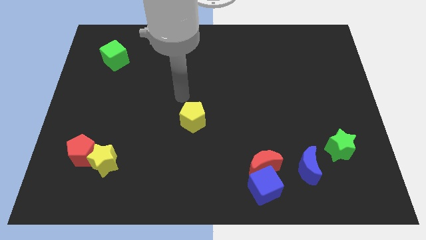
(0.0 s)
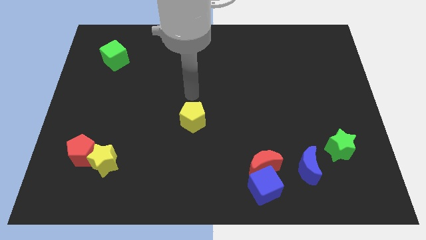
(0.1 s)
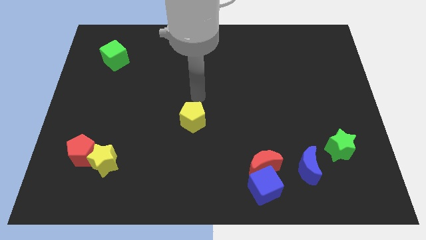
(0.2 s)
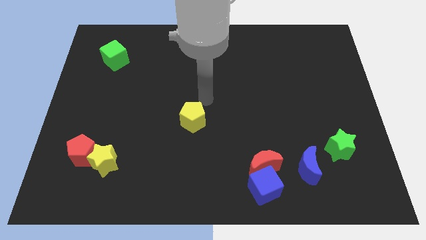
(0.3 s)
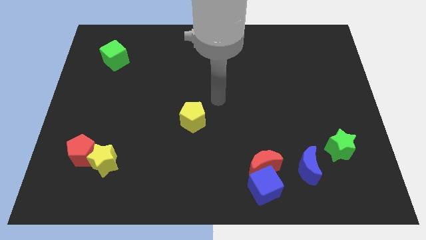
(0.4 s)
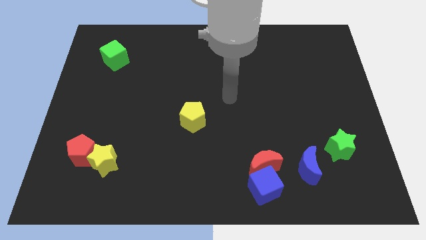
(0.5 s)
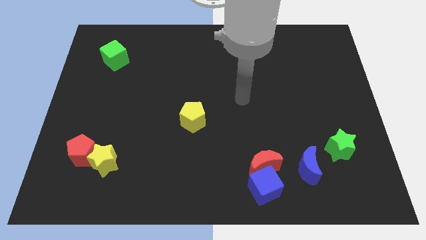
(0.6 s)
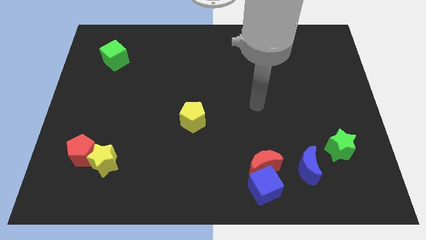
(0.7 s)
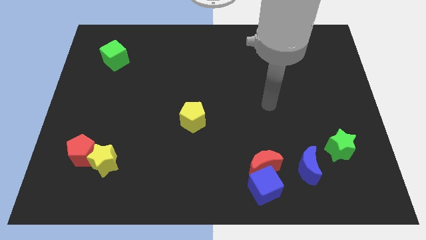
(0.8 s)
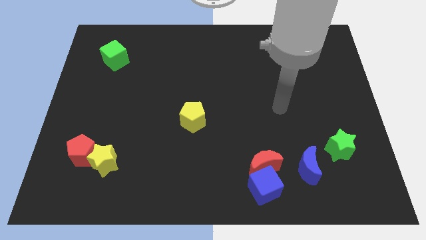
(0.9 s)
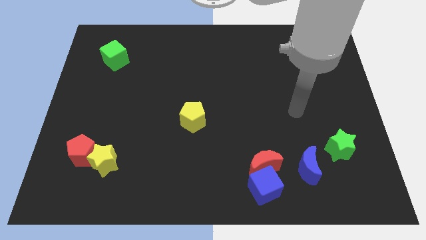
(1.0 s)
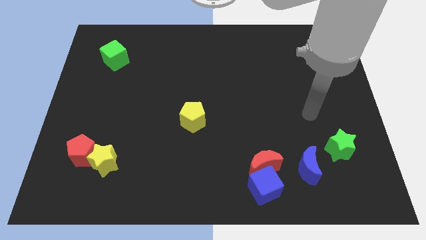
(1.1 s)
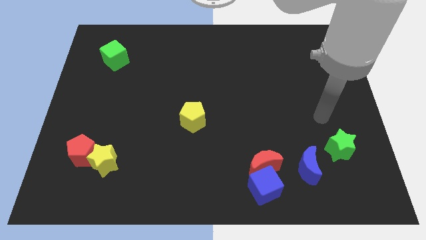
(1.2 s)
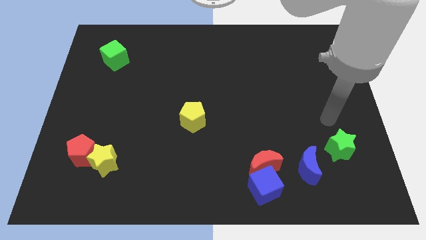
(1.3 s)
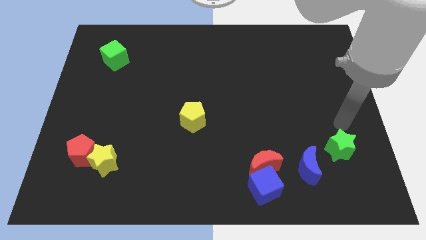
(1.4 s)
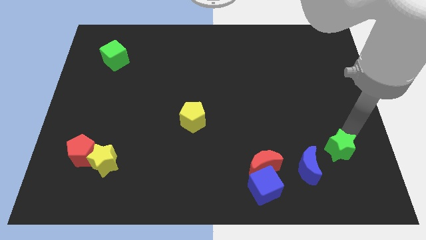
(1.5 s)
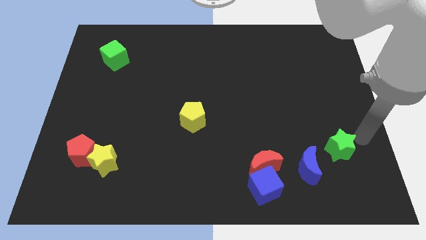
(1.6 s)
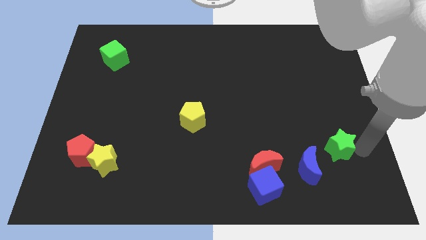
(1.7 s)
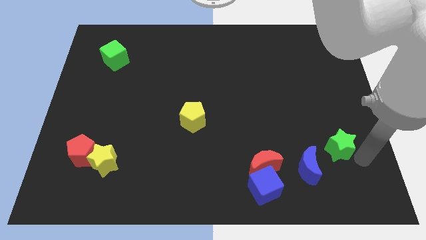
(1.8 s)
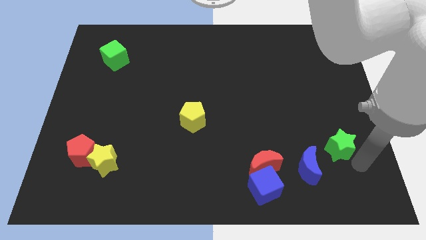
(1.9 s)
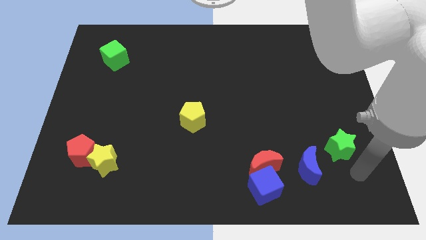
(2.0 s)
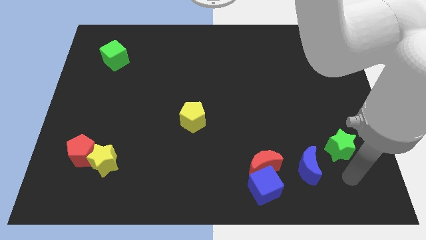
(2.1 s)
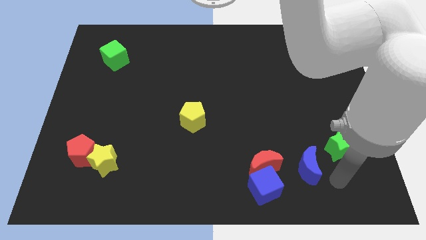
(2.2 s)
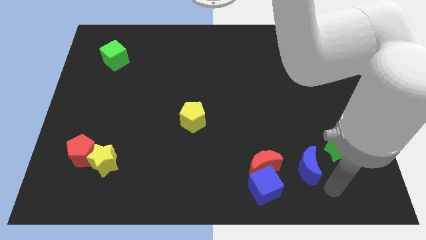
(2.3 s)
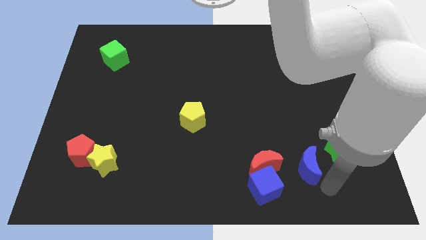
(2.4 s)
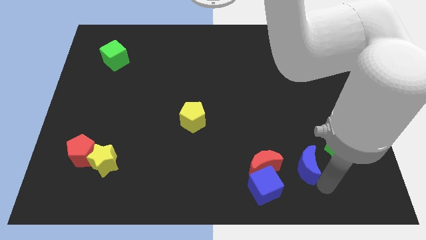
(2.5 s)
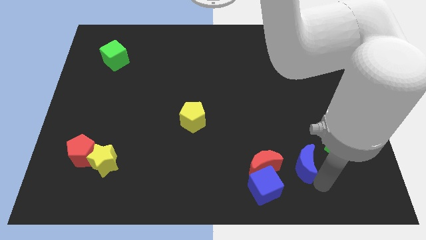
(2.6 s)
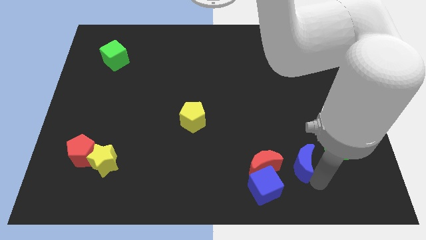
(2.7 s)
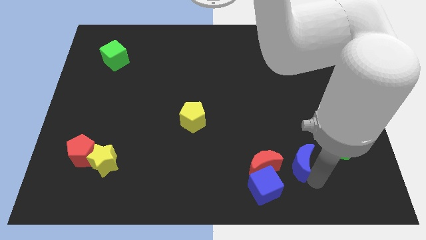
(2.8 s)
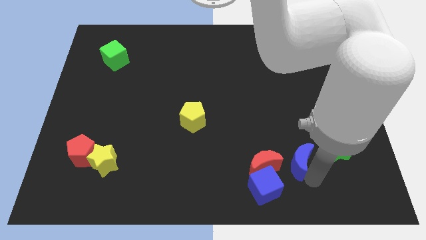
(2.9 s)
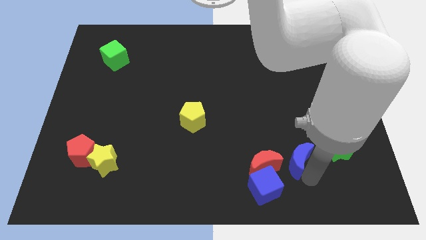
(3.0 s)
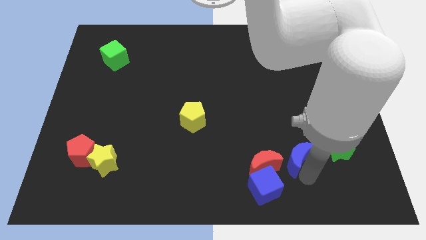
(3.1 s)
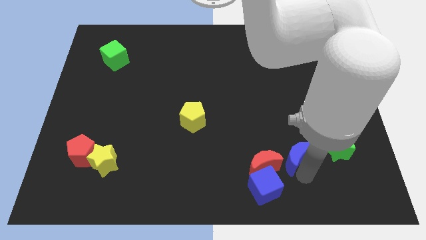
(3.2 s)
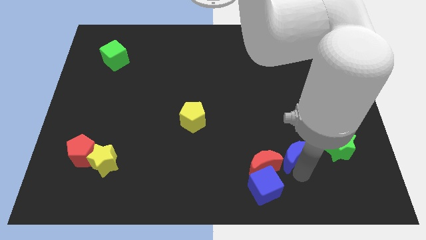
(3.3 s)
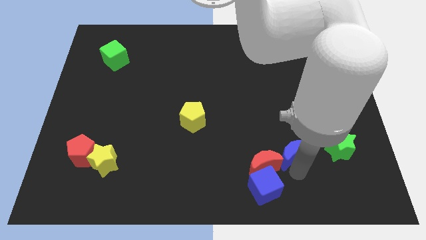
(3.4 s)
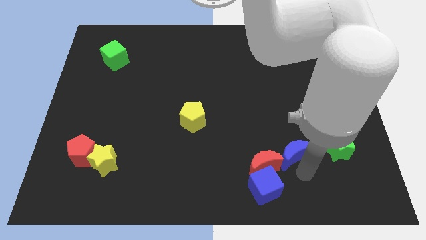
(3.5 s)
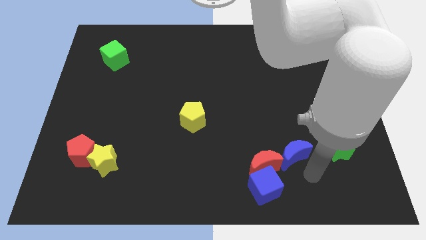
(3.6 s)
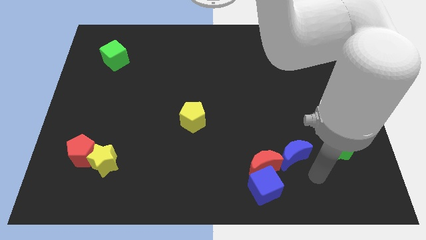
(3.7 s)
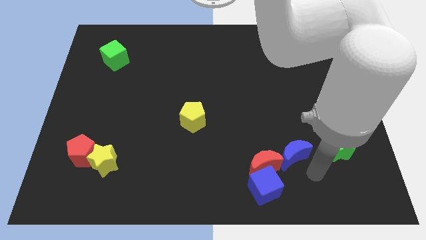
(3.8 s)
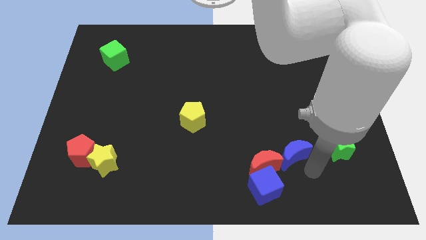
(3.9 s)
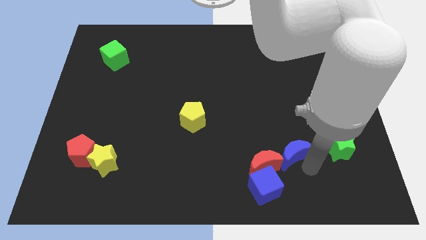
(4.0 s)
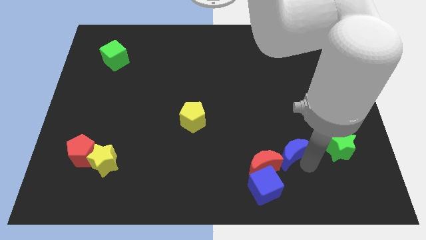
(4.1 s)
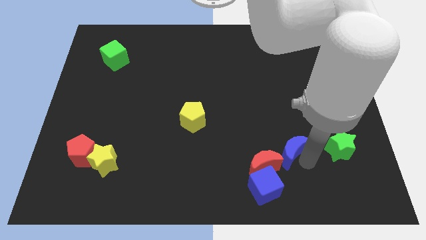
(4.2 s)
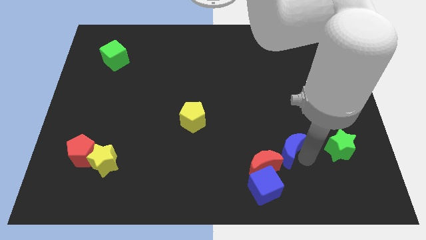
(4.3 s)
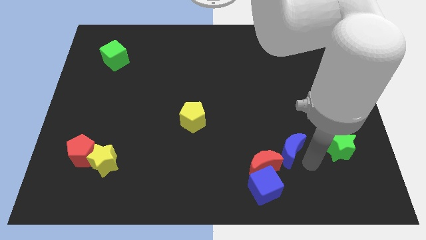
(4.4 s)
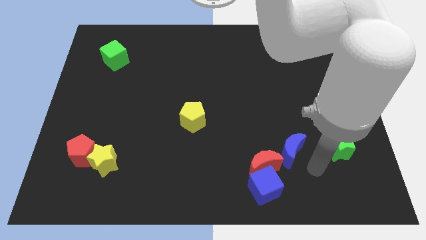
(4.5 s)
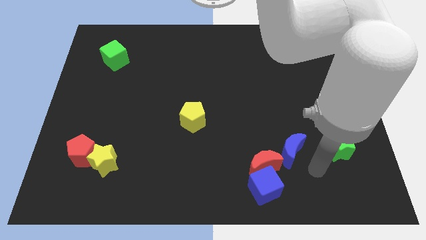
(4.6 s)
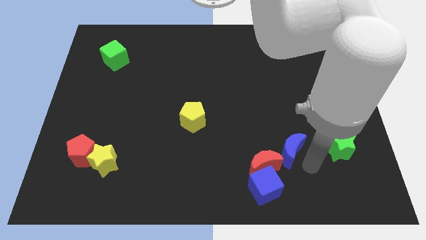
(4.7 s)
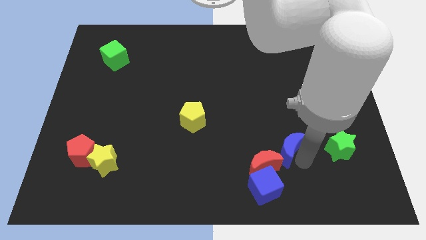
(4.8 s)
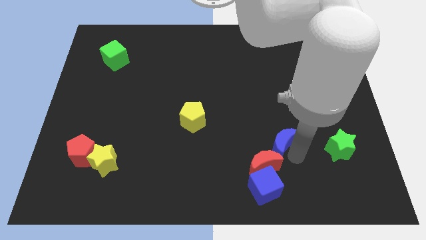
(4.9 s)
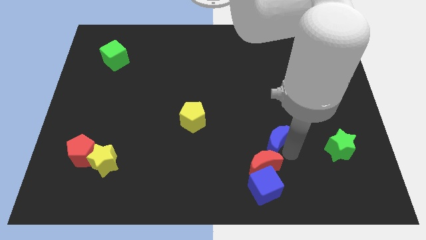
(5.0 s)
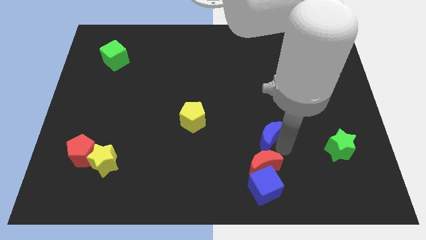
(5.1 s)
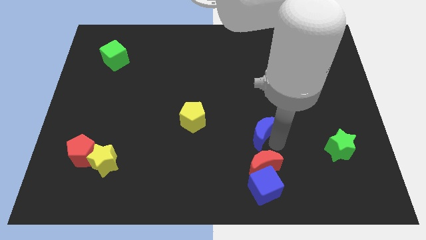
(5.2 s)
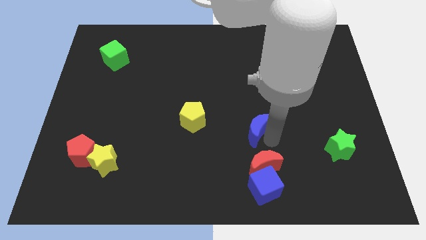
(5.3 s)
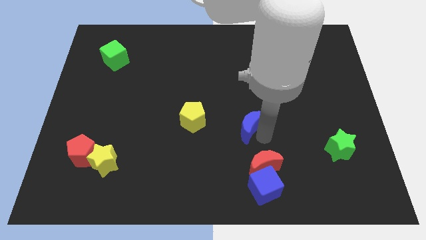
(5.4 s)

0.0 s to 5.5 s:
move the blue moon to the middle of the board
